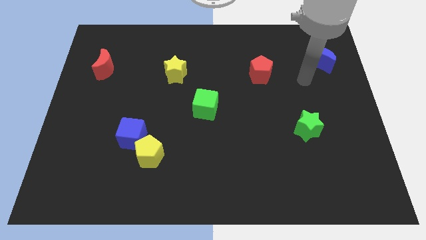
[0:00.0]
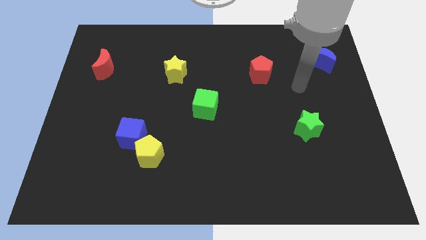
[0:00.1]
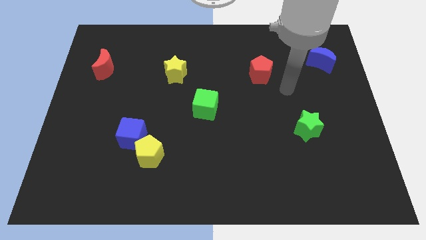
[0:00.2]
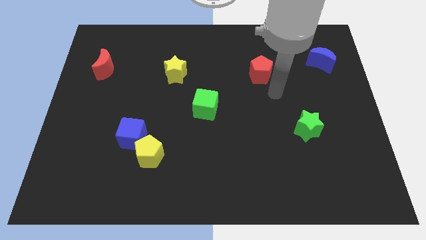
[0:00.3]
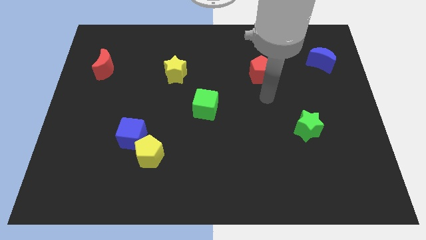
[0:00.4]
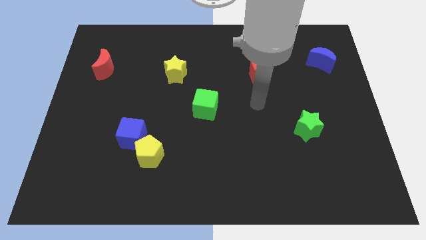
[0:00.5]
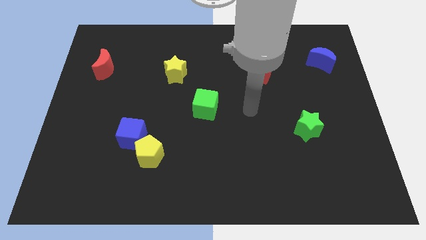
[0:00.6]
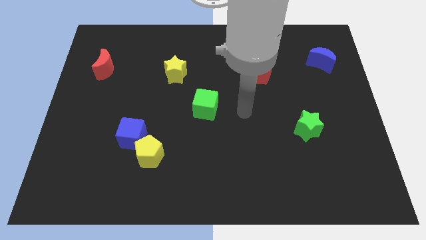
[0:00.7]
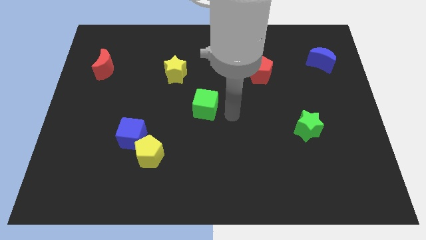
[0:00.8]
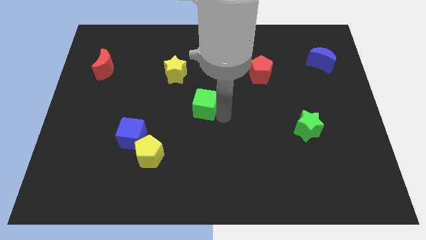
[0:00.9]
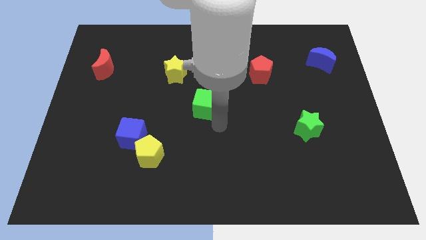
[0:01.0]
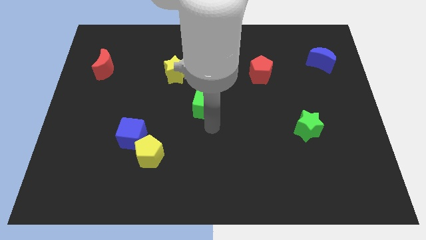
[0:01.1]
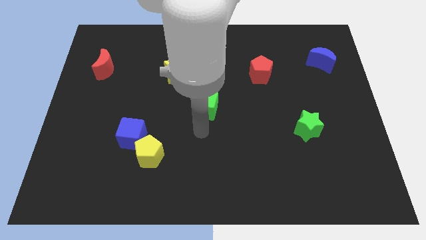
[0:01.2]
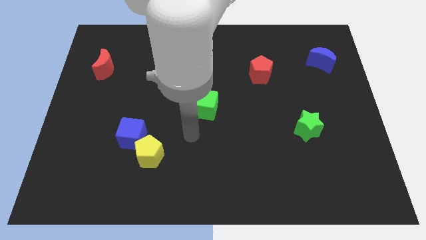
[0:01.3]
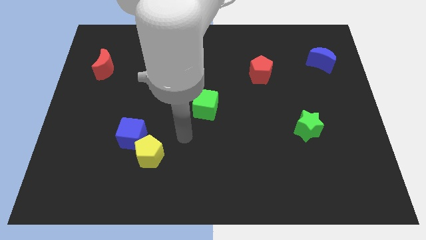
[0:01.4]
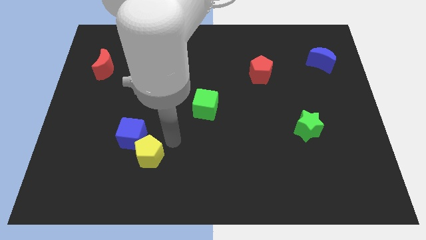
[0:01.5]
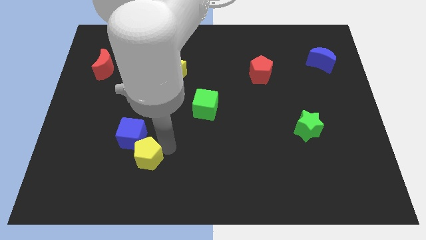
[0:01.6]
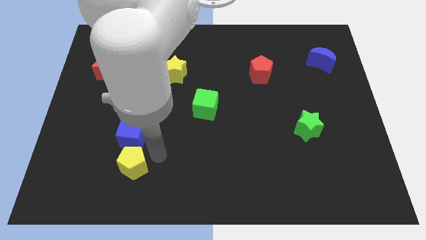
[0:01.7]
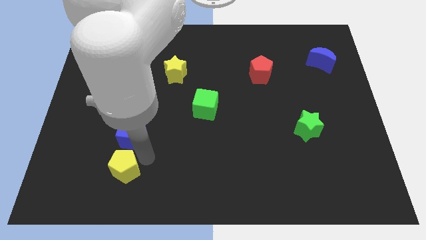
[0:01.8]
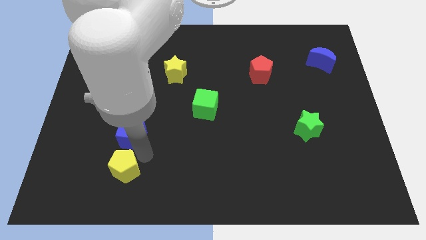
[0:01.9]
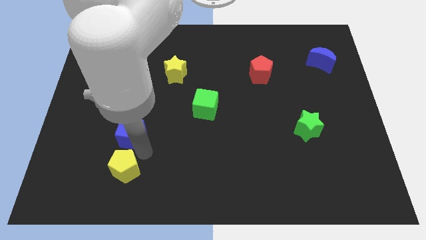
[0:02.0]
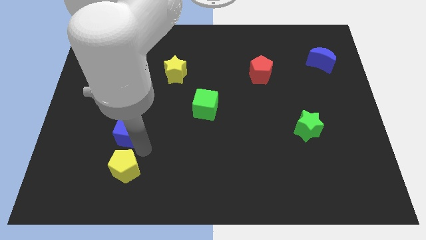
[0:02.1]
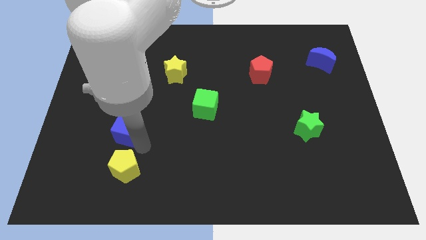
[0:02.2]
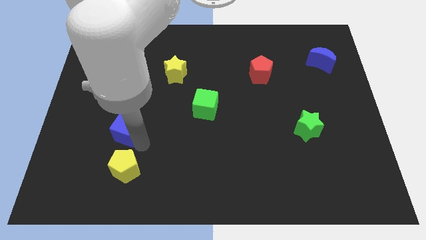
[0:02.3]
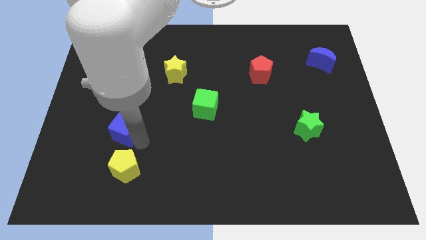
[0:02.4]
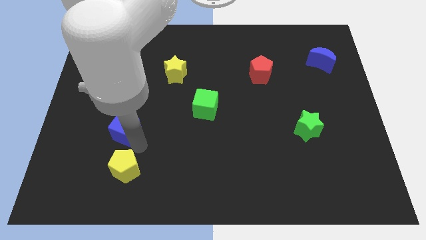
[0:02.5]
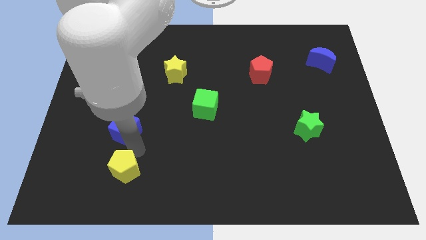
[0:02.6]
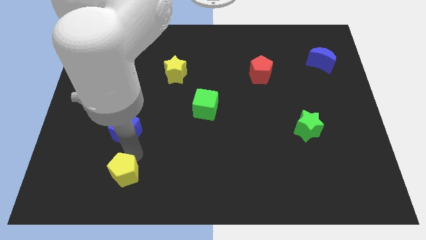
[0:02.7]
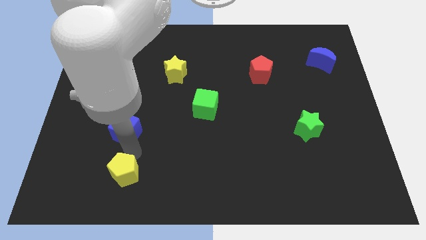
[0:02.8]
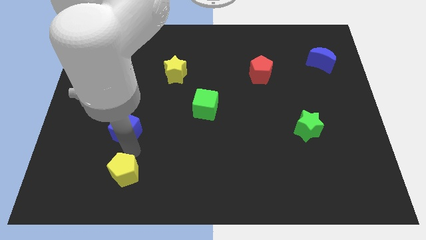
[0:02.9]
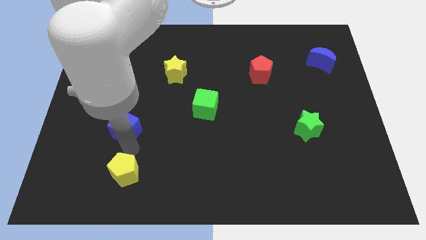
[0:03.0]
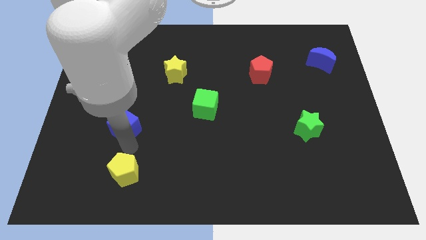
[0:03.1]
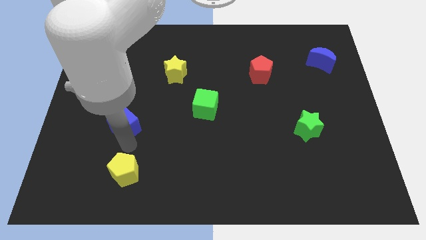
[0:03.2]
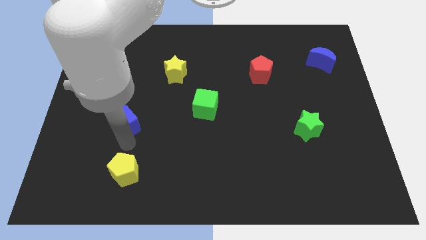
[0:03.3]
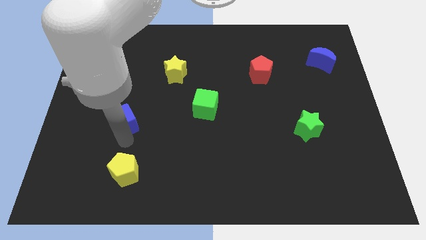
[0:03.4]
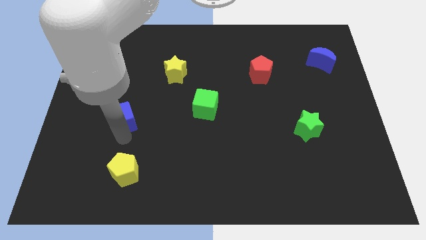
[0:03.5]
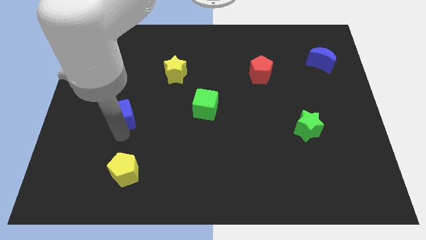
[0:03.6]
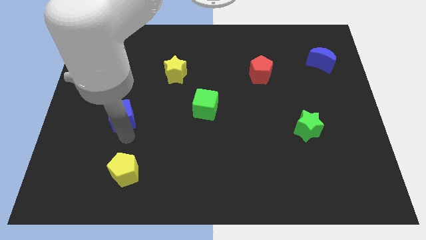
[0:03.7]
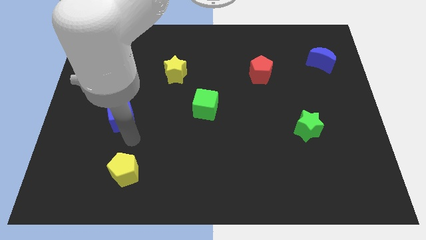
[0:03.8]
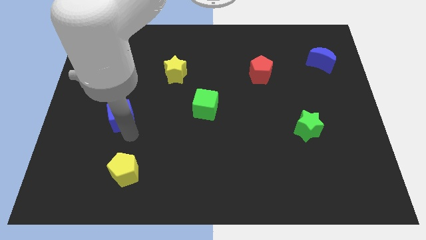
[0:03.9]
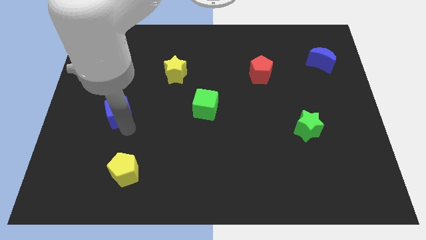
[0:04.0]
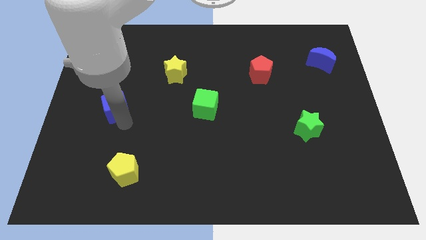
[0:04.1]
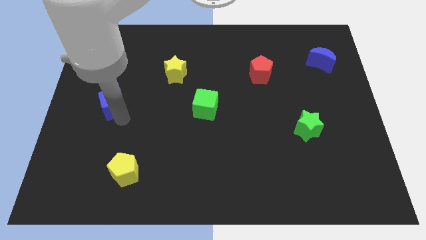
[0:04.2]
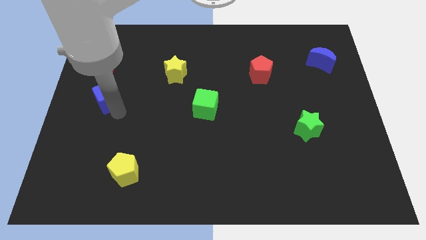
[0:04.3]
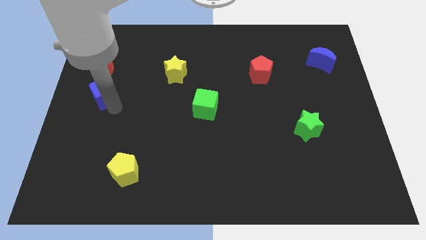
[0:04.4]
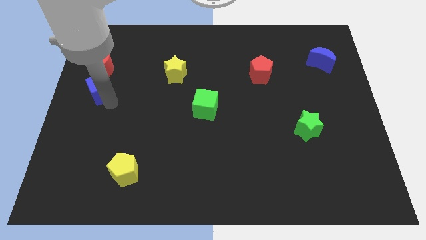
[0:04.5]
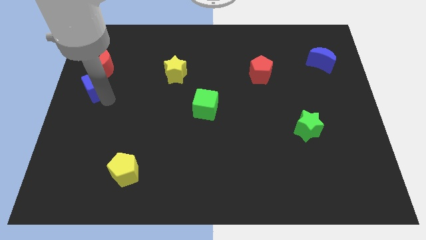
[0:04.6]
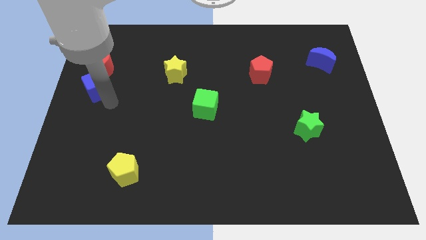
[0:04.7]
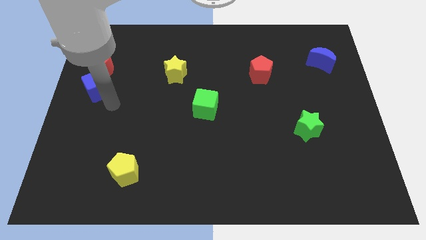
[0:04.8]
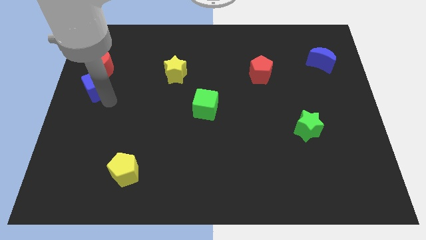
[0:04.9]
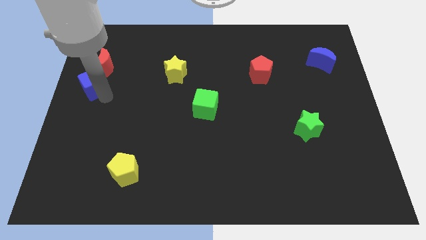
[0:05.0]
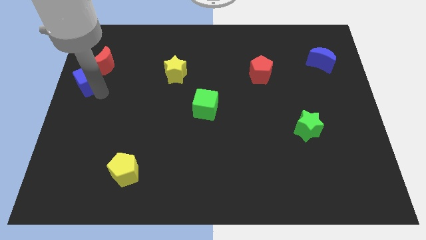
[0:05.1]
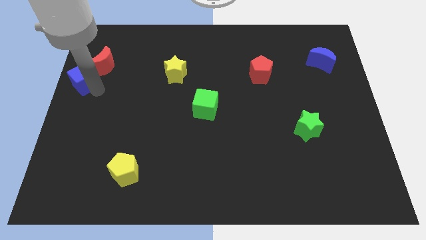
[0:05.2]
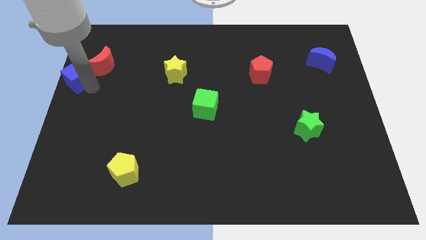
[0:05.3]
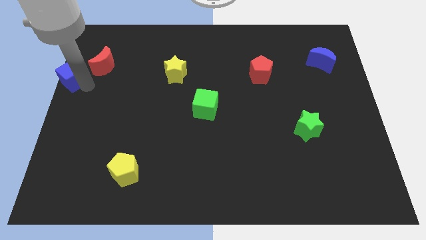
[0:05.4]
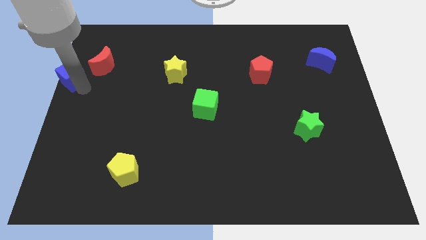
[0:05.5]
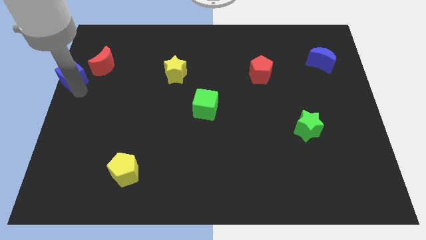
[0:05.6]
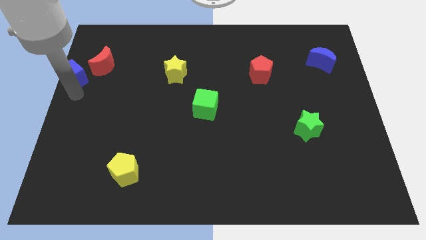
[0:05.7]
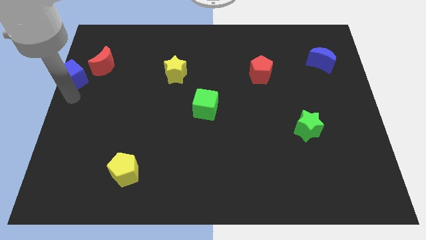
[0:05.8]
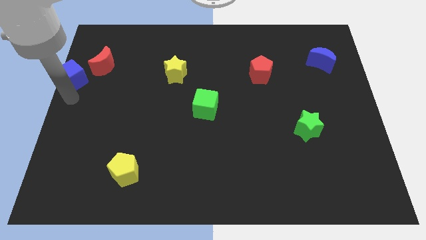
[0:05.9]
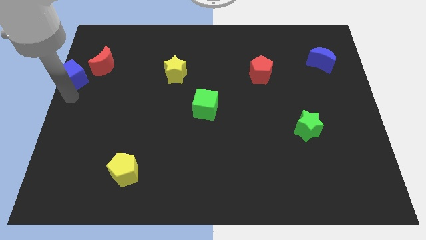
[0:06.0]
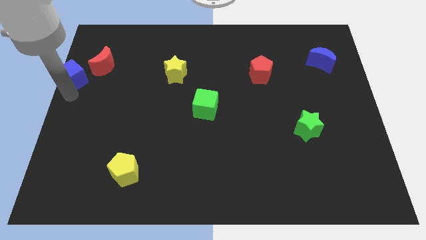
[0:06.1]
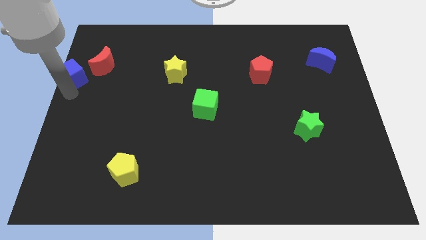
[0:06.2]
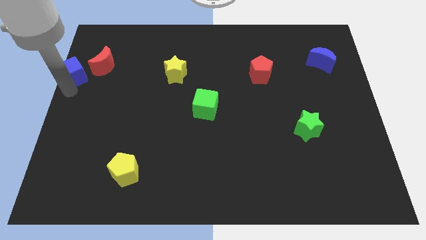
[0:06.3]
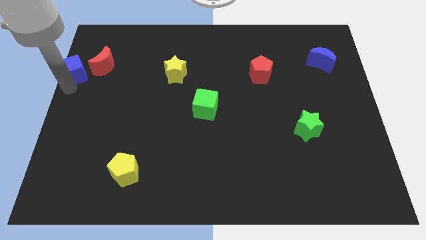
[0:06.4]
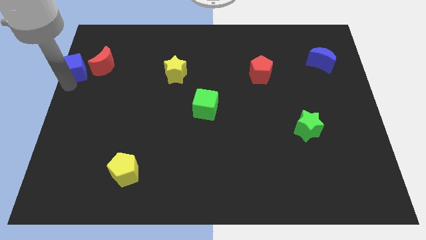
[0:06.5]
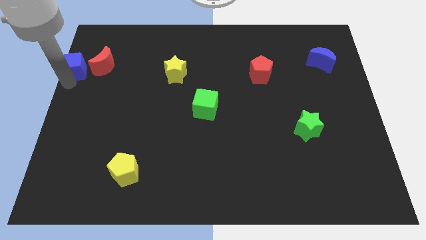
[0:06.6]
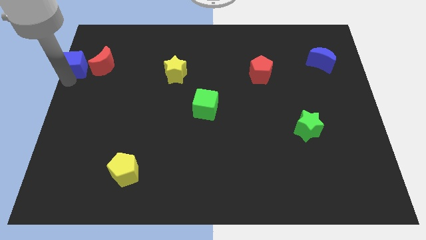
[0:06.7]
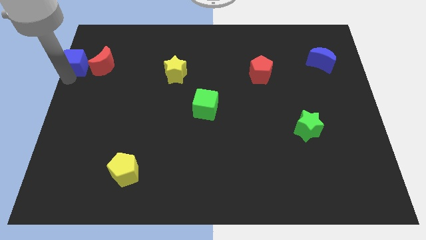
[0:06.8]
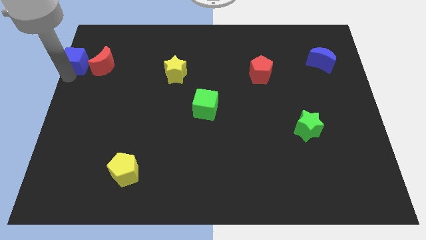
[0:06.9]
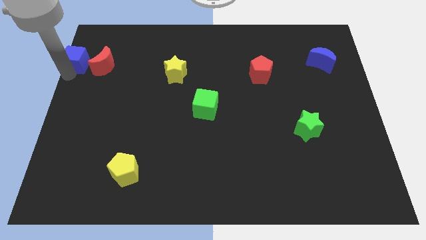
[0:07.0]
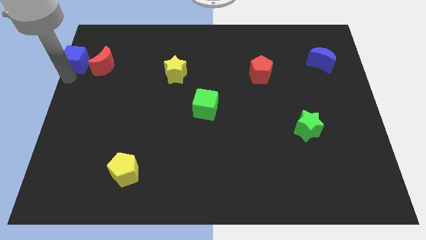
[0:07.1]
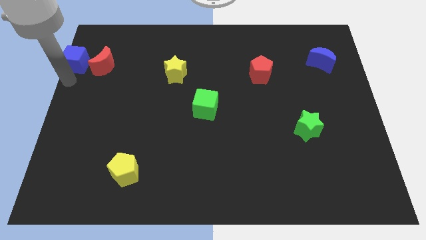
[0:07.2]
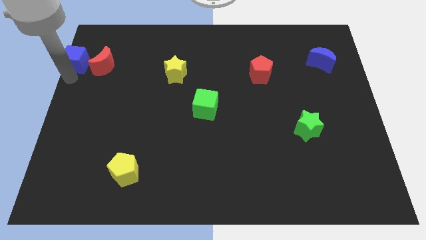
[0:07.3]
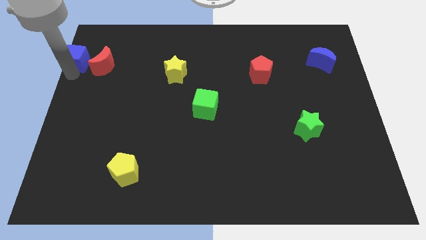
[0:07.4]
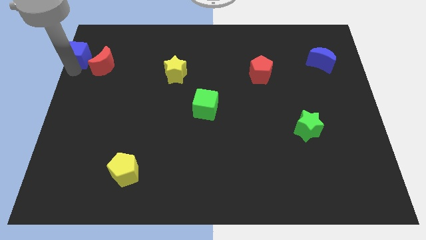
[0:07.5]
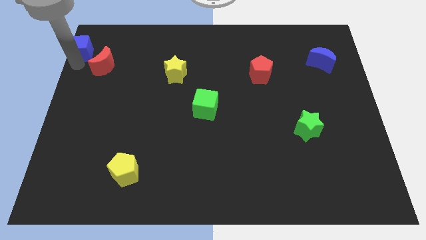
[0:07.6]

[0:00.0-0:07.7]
slide the blue cube to the top left of the board
